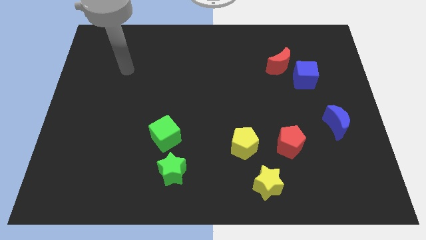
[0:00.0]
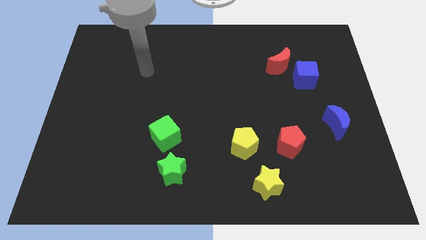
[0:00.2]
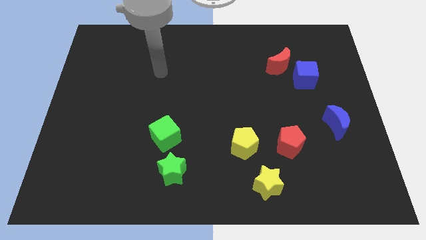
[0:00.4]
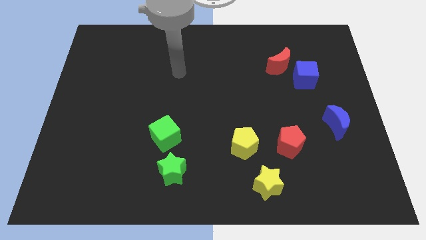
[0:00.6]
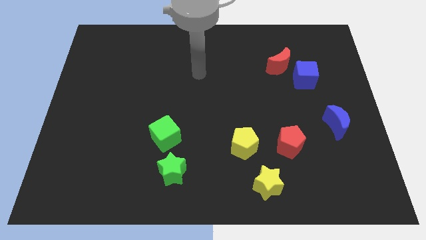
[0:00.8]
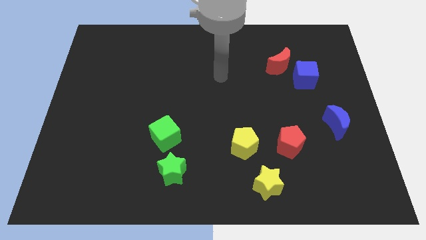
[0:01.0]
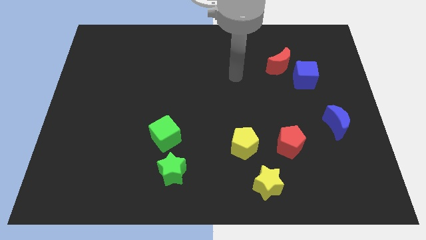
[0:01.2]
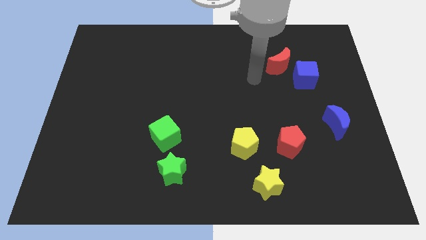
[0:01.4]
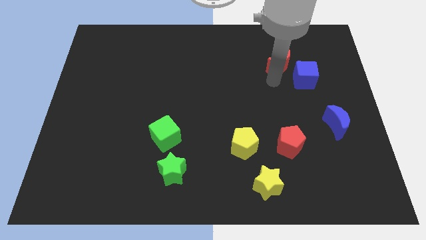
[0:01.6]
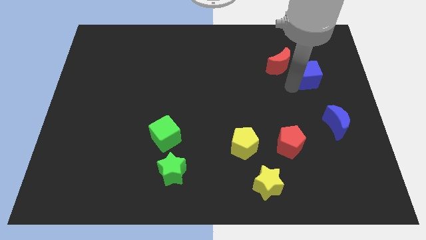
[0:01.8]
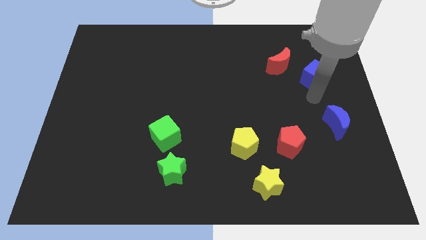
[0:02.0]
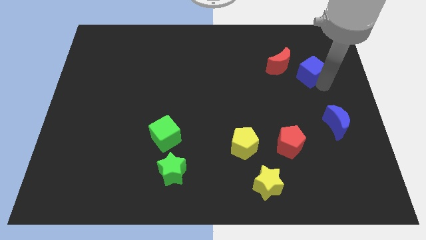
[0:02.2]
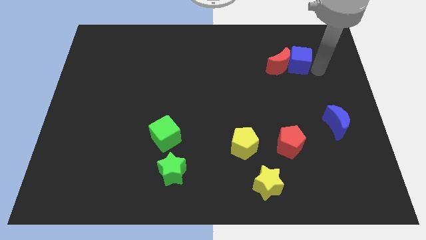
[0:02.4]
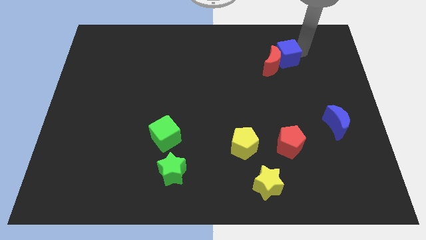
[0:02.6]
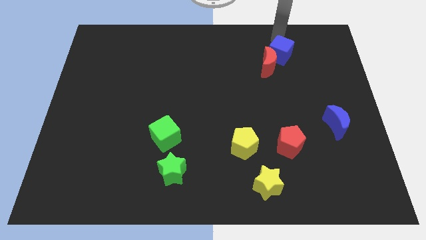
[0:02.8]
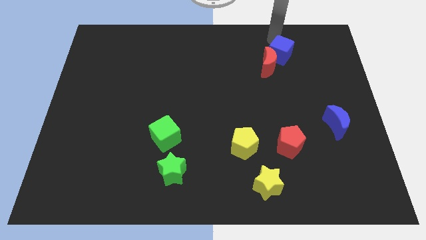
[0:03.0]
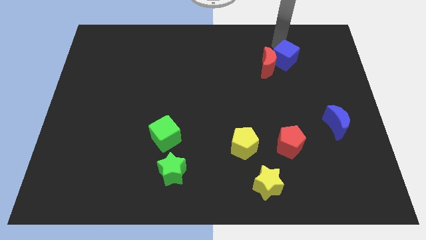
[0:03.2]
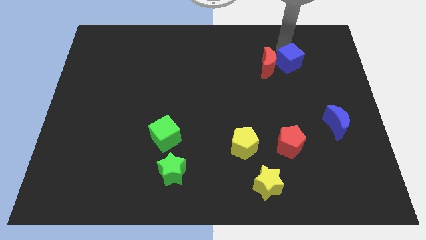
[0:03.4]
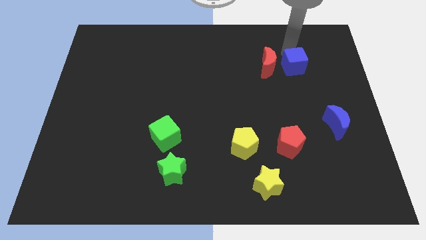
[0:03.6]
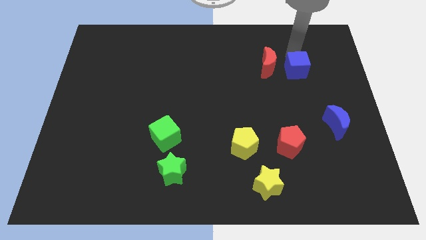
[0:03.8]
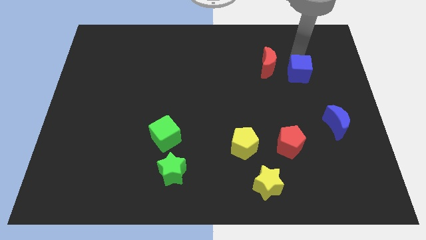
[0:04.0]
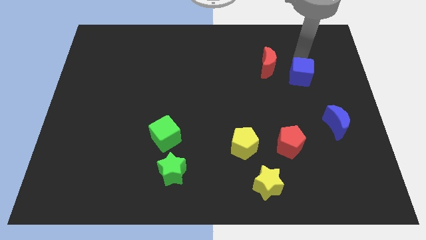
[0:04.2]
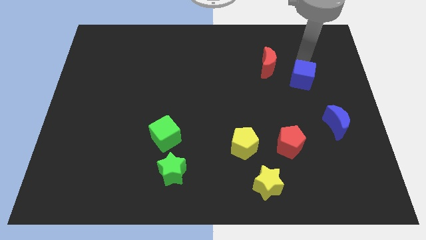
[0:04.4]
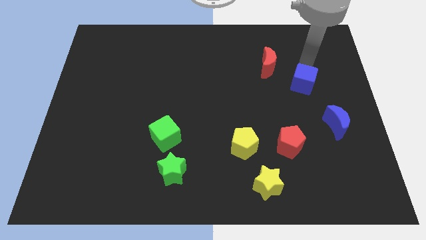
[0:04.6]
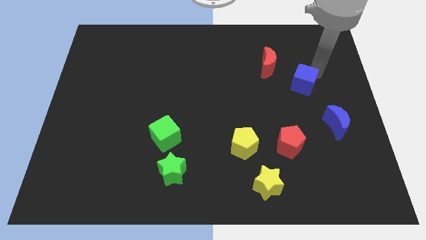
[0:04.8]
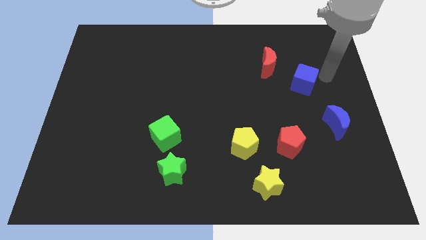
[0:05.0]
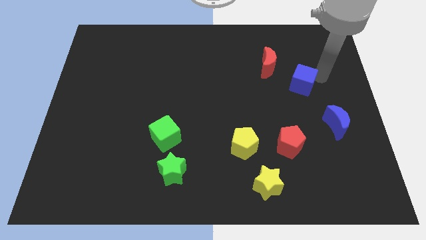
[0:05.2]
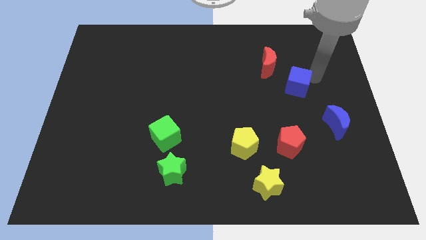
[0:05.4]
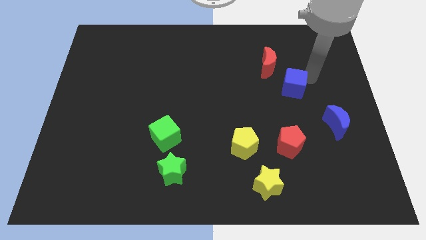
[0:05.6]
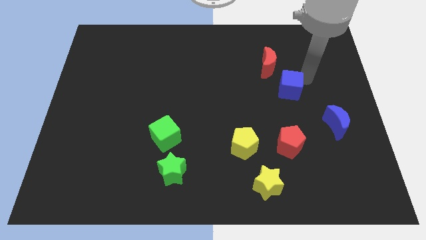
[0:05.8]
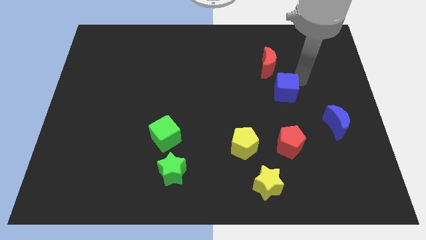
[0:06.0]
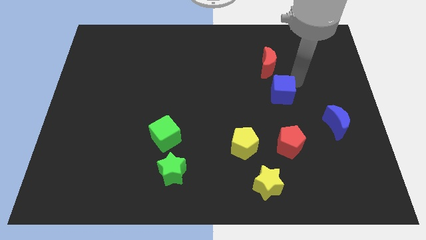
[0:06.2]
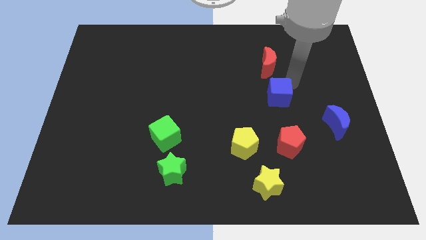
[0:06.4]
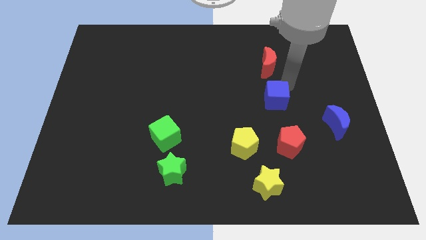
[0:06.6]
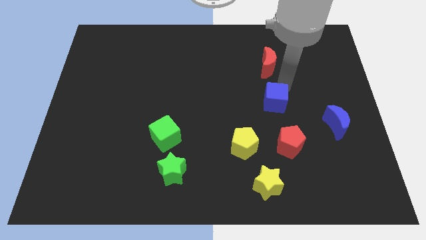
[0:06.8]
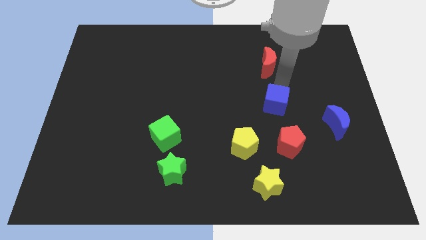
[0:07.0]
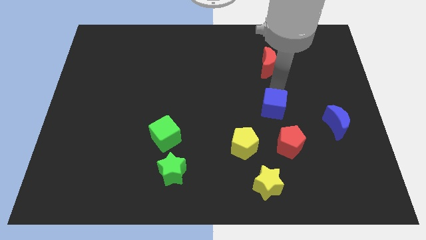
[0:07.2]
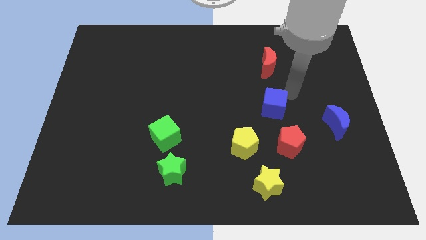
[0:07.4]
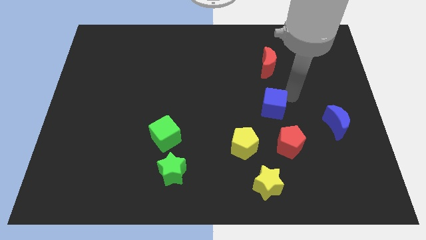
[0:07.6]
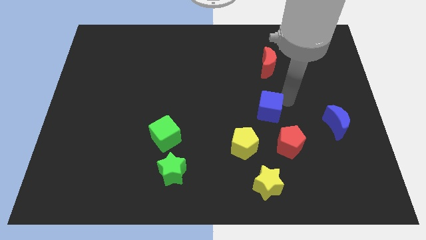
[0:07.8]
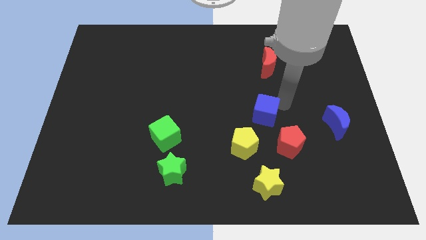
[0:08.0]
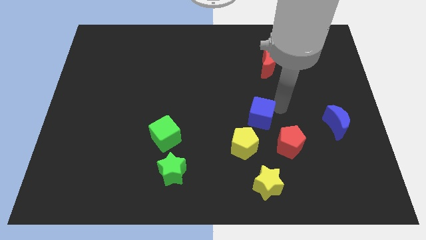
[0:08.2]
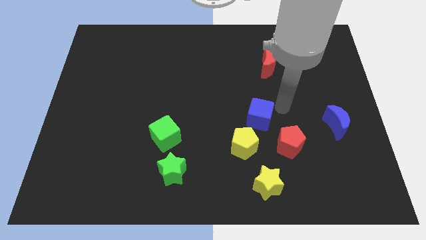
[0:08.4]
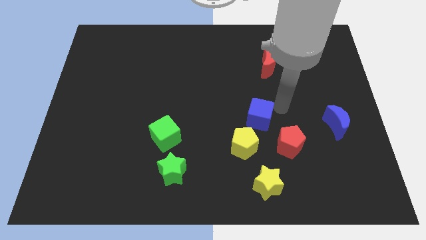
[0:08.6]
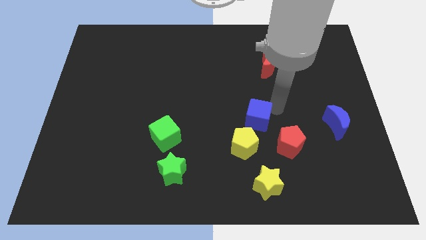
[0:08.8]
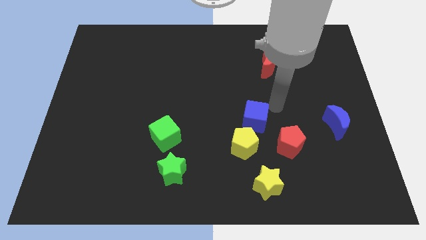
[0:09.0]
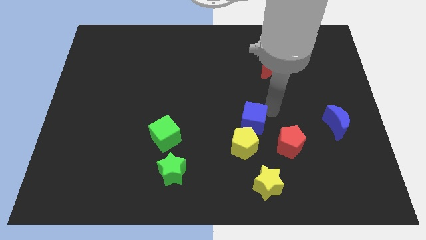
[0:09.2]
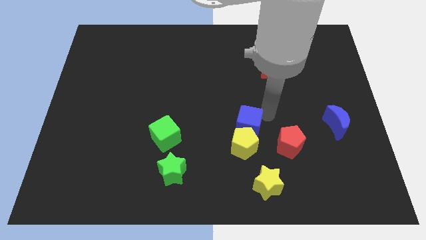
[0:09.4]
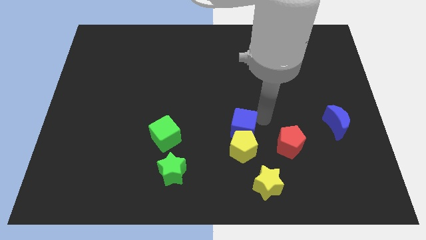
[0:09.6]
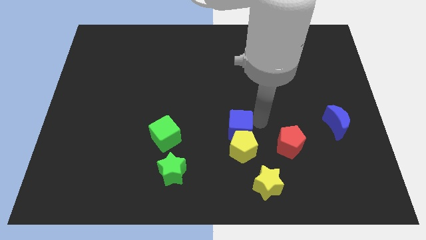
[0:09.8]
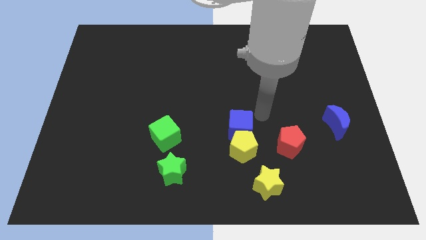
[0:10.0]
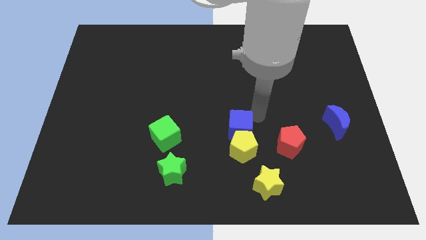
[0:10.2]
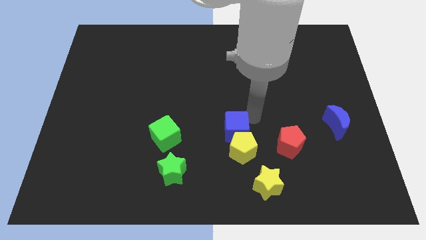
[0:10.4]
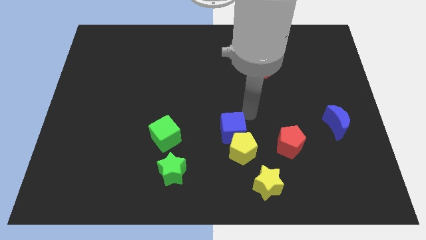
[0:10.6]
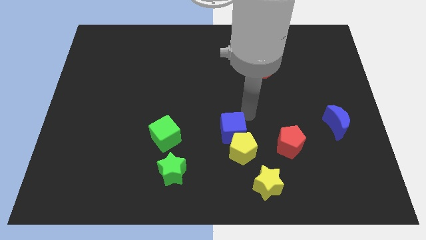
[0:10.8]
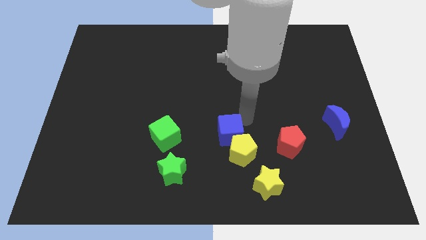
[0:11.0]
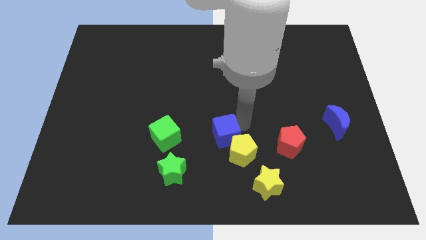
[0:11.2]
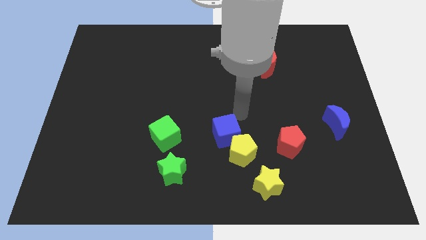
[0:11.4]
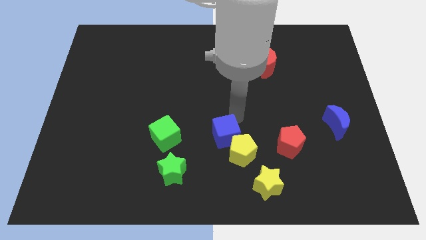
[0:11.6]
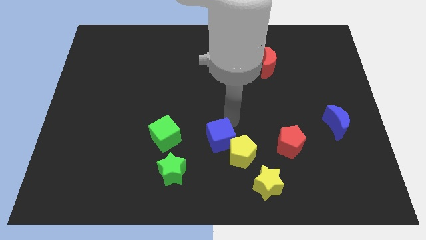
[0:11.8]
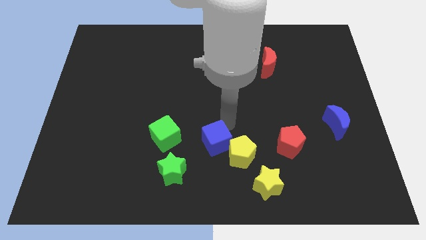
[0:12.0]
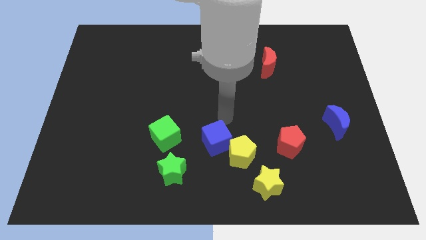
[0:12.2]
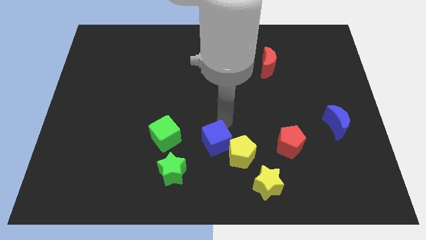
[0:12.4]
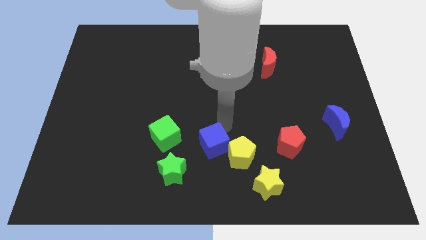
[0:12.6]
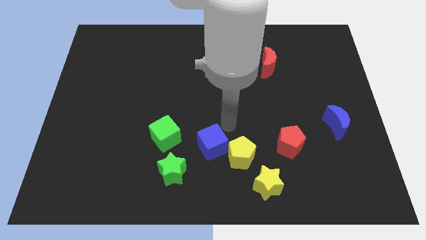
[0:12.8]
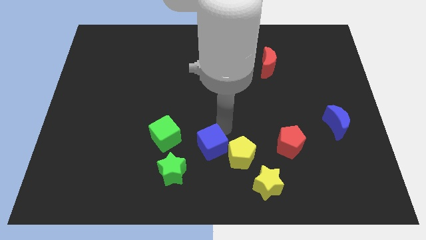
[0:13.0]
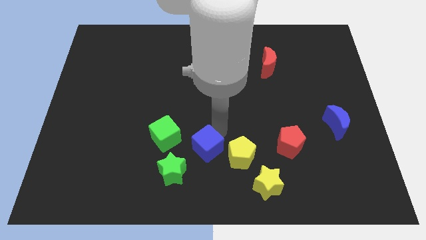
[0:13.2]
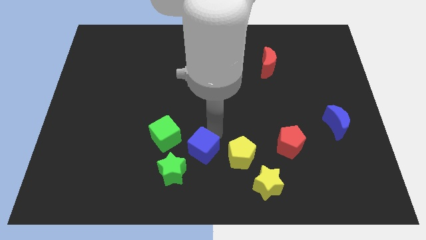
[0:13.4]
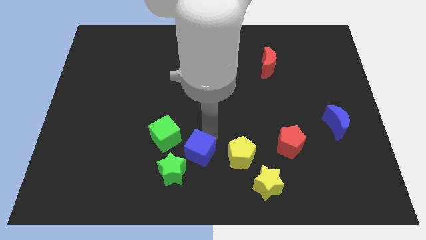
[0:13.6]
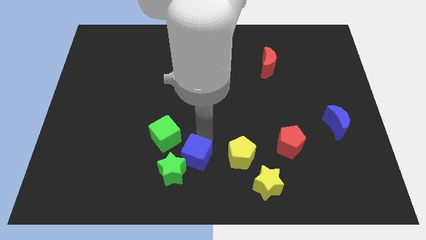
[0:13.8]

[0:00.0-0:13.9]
push the blue cube towards the green star
